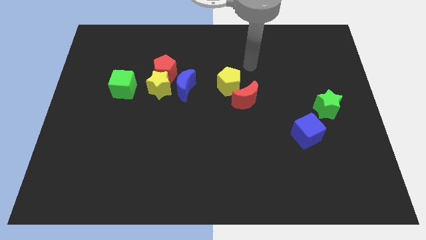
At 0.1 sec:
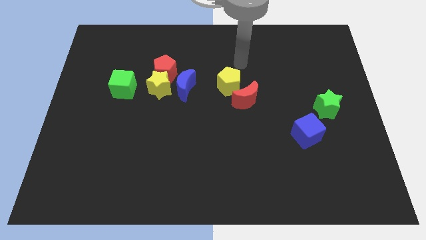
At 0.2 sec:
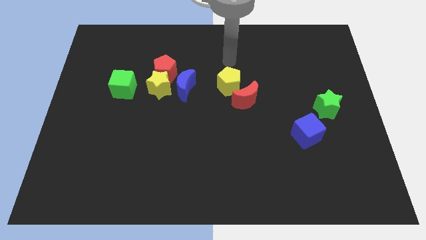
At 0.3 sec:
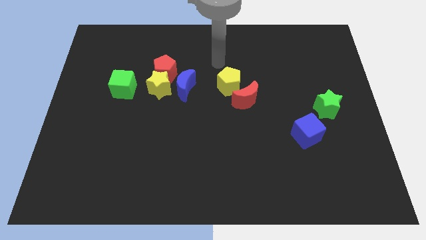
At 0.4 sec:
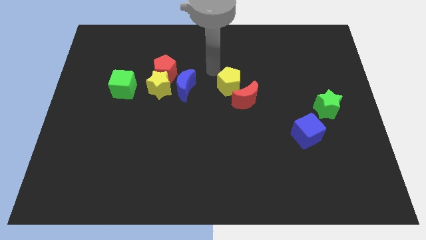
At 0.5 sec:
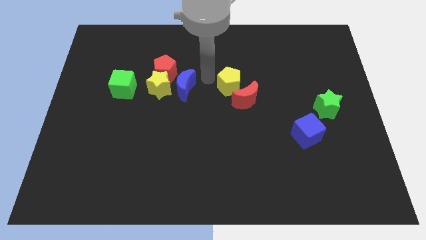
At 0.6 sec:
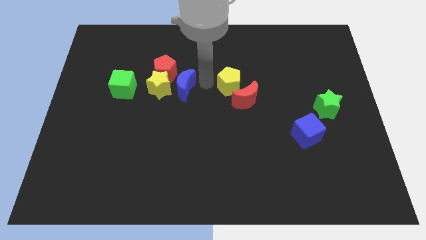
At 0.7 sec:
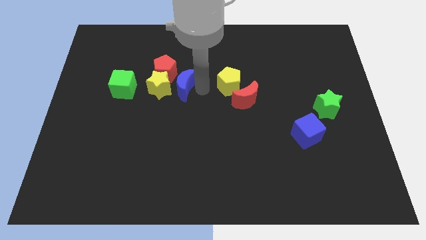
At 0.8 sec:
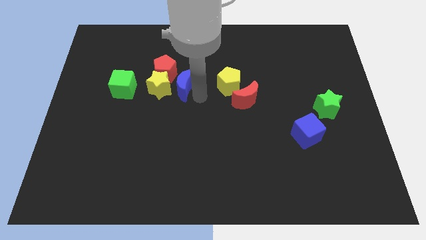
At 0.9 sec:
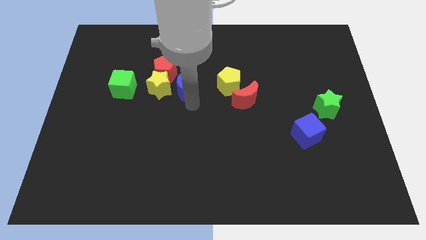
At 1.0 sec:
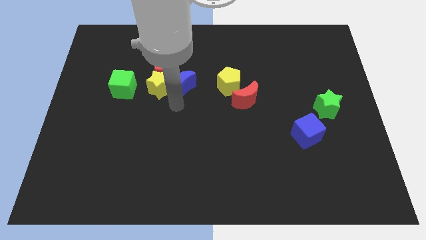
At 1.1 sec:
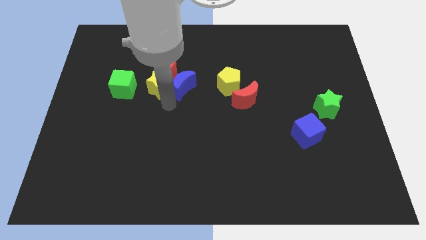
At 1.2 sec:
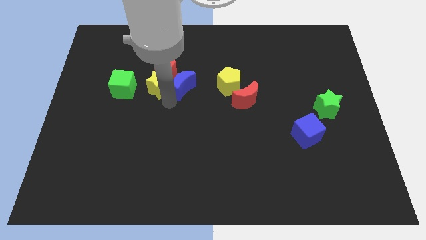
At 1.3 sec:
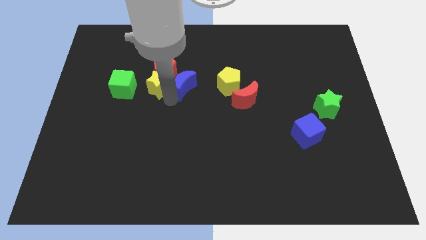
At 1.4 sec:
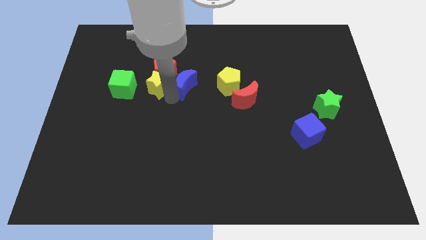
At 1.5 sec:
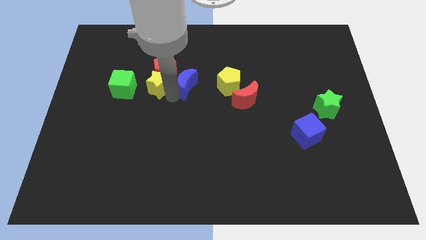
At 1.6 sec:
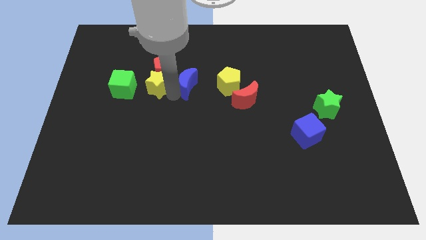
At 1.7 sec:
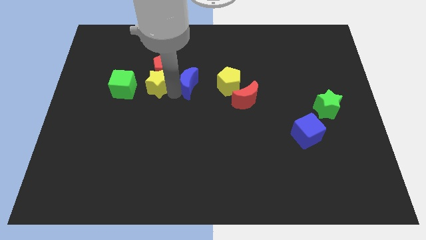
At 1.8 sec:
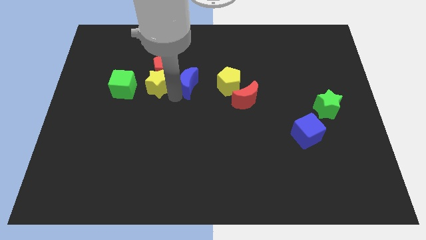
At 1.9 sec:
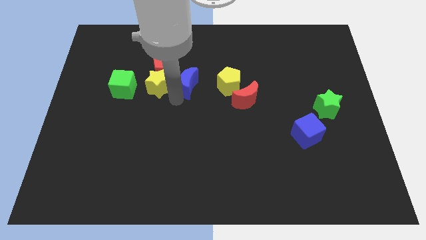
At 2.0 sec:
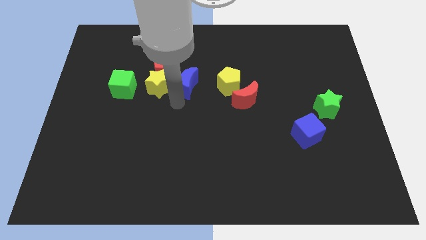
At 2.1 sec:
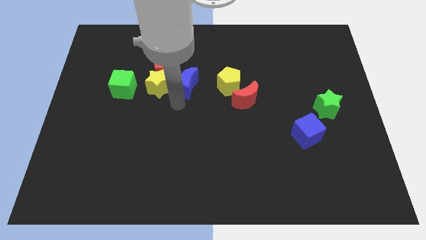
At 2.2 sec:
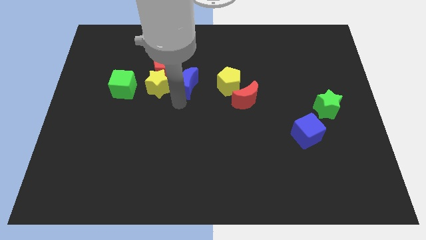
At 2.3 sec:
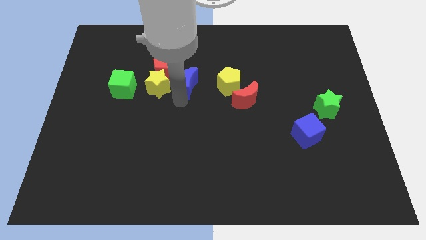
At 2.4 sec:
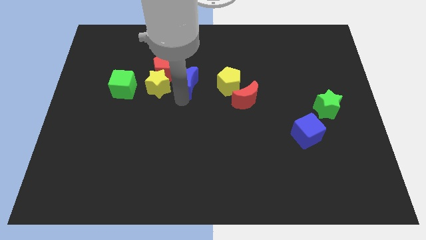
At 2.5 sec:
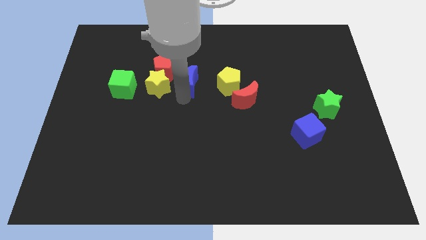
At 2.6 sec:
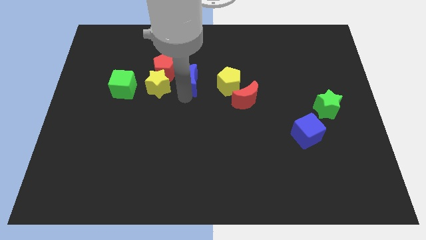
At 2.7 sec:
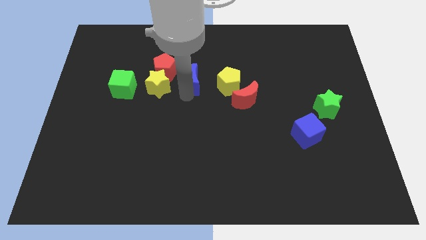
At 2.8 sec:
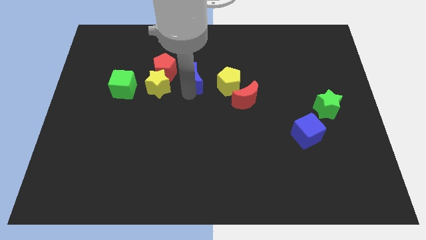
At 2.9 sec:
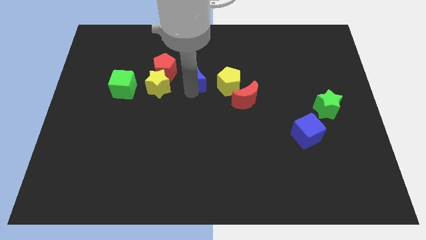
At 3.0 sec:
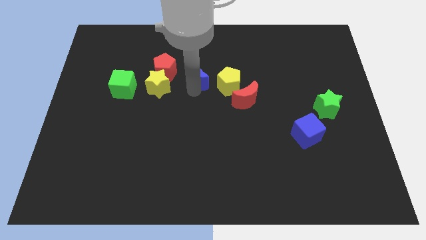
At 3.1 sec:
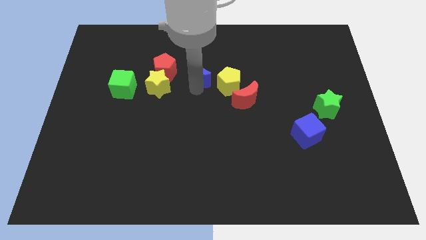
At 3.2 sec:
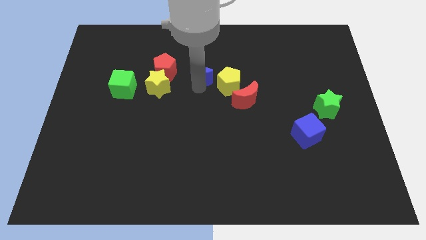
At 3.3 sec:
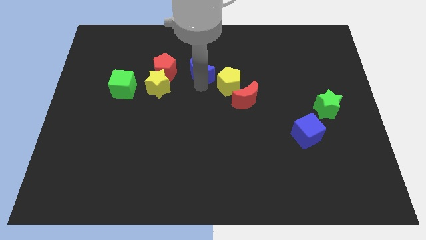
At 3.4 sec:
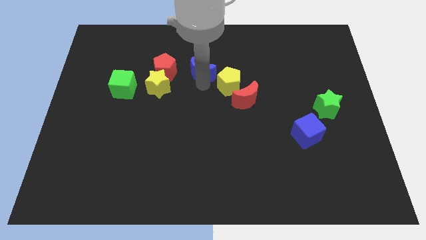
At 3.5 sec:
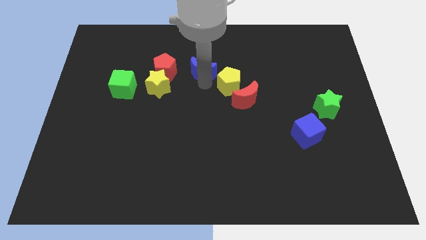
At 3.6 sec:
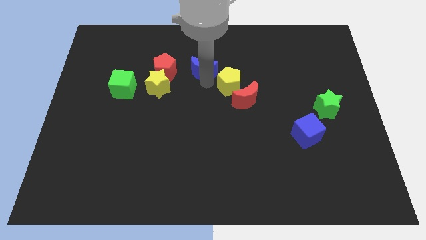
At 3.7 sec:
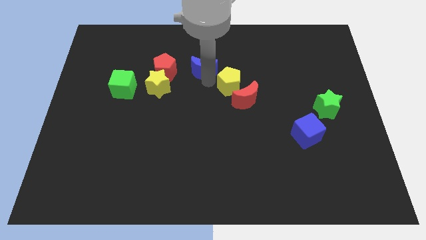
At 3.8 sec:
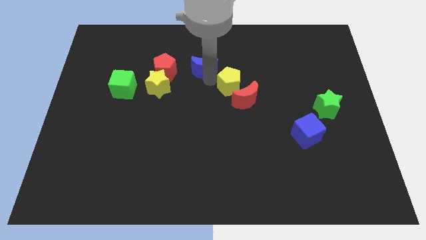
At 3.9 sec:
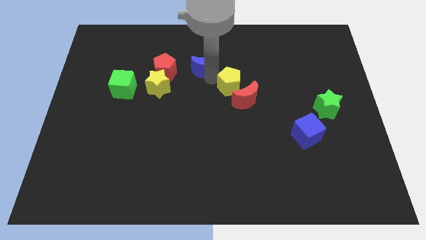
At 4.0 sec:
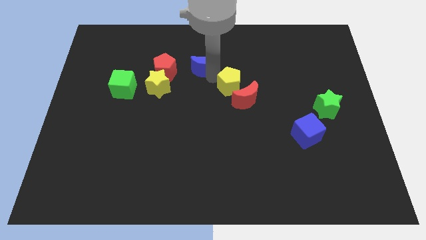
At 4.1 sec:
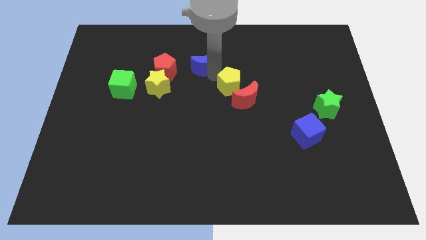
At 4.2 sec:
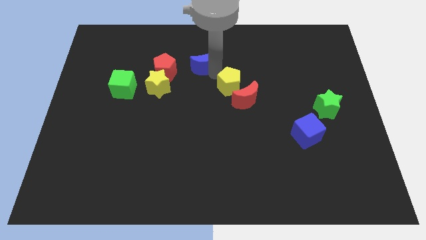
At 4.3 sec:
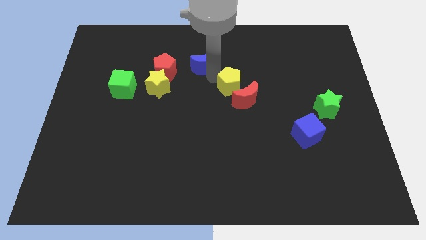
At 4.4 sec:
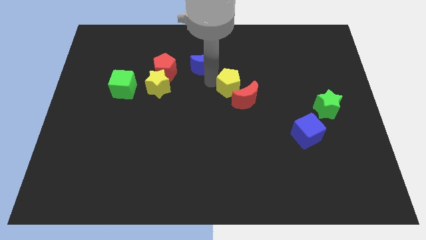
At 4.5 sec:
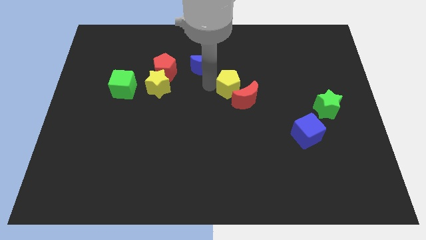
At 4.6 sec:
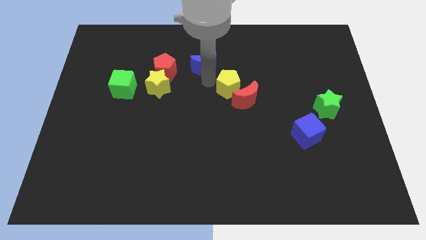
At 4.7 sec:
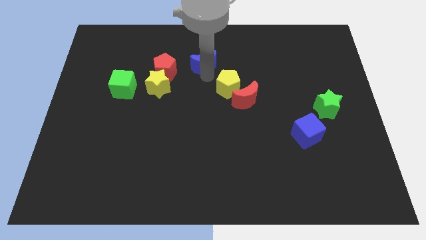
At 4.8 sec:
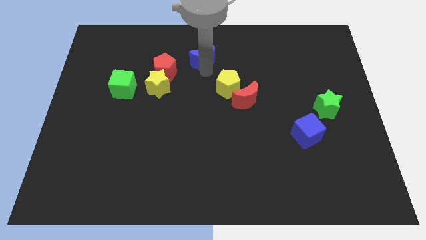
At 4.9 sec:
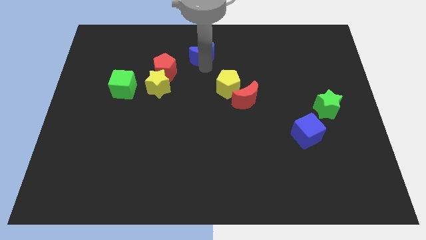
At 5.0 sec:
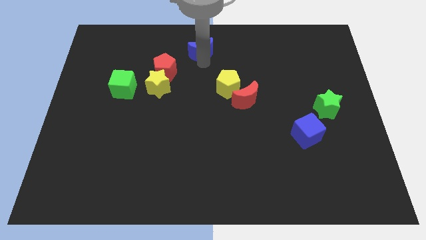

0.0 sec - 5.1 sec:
put the blue moon to the top

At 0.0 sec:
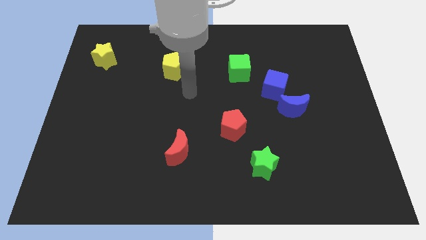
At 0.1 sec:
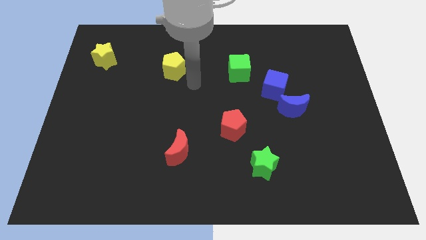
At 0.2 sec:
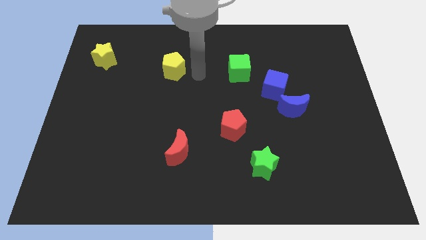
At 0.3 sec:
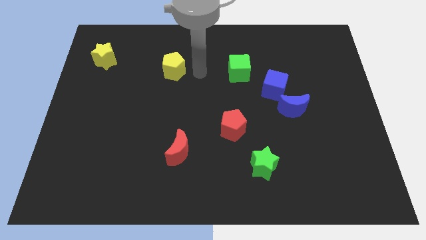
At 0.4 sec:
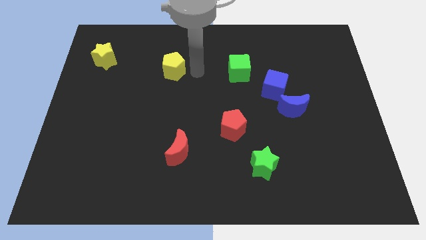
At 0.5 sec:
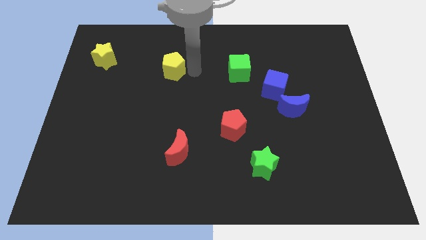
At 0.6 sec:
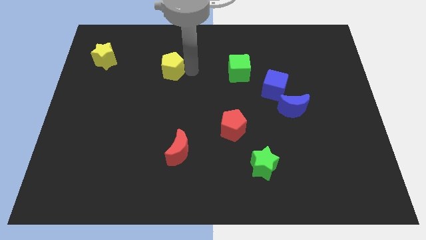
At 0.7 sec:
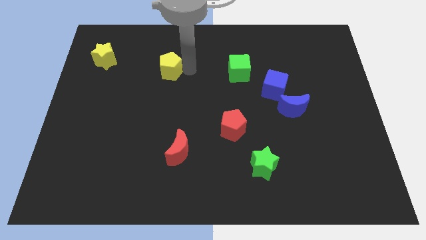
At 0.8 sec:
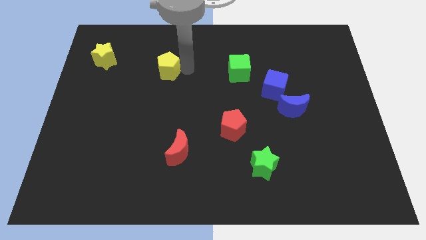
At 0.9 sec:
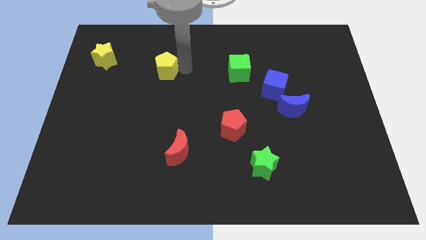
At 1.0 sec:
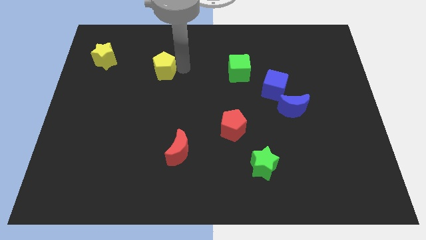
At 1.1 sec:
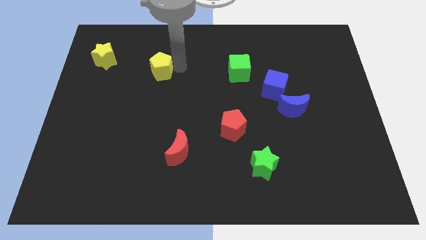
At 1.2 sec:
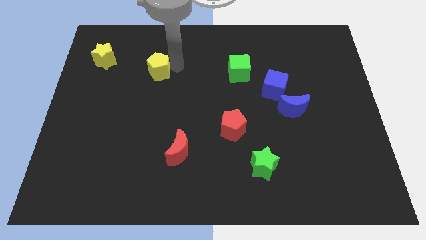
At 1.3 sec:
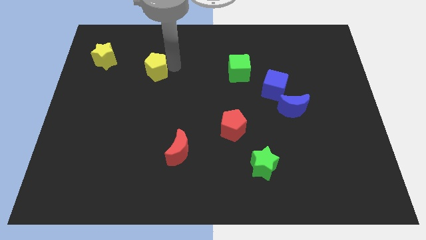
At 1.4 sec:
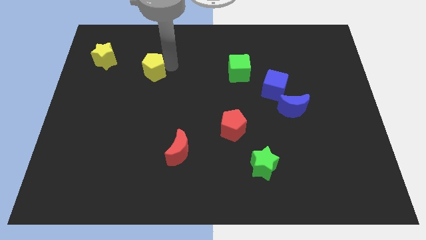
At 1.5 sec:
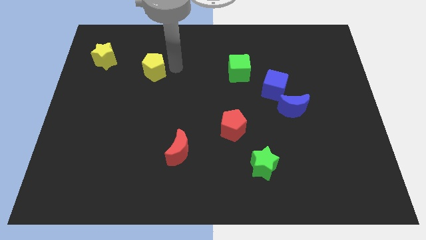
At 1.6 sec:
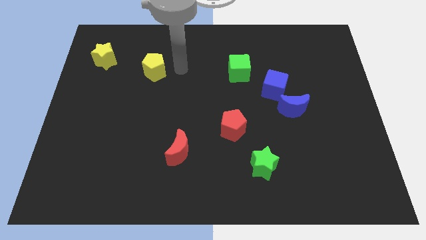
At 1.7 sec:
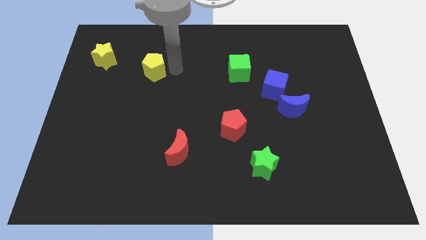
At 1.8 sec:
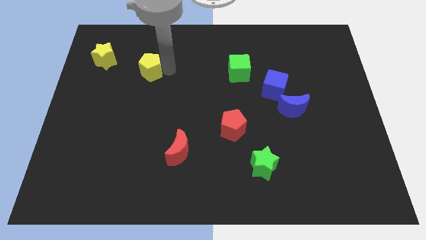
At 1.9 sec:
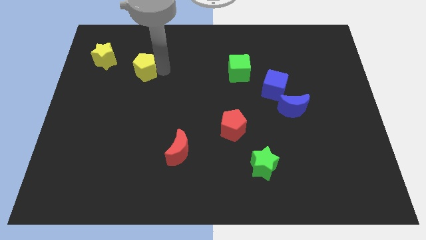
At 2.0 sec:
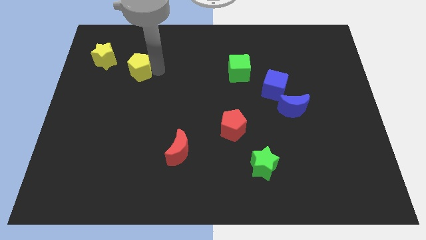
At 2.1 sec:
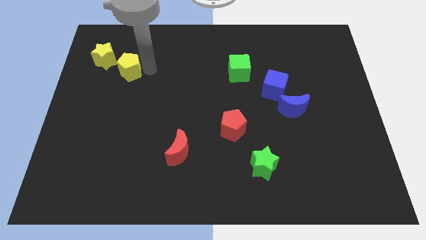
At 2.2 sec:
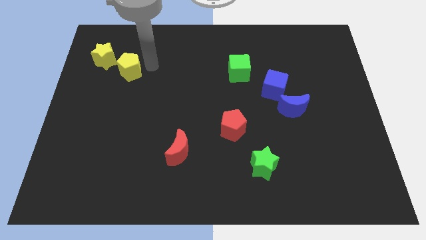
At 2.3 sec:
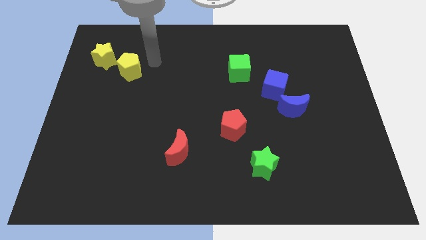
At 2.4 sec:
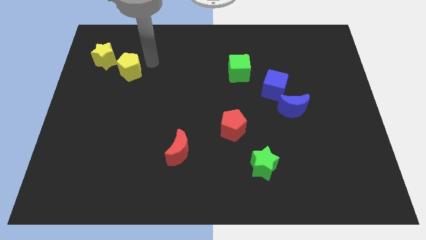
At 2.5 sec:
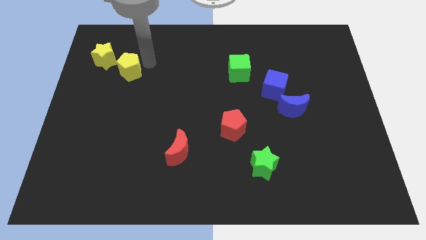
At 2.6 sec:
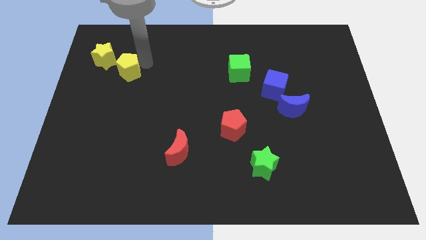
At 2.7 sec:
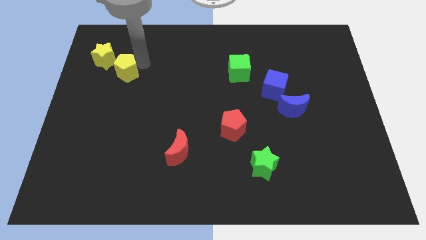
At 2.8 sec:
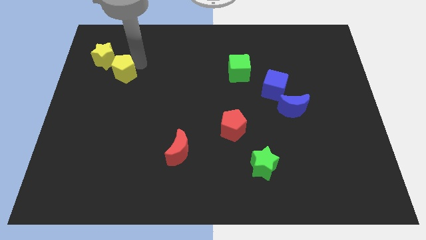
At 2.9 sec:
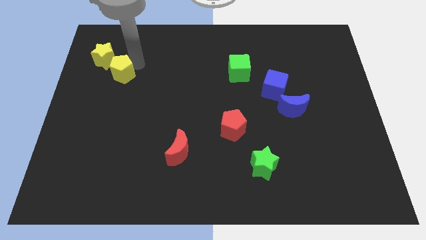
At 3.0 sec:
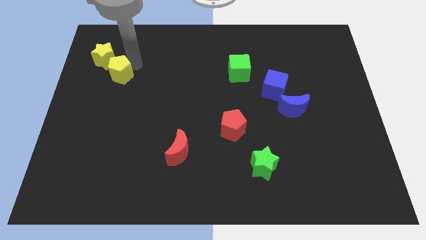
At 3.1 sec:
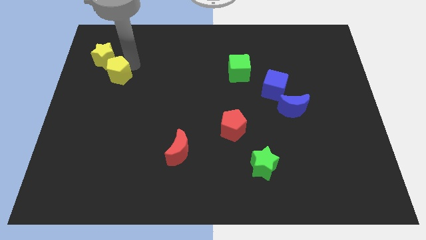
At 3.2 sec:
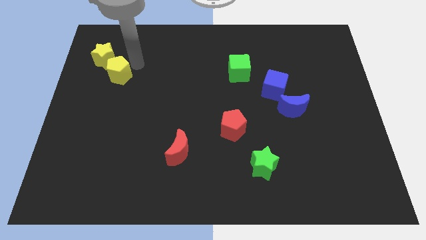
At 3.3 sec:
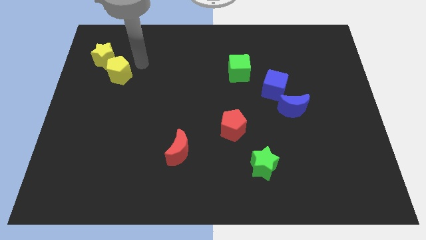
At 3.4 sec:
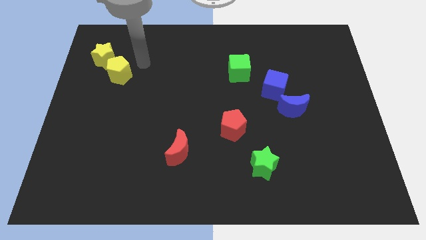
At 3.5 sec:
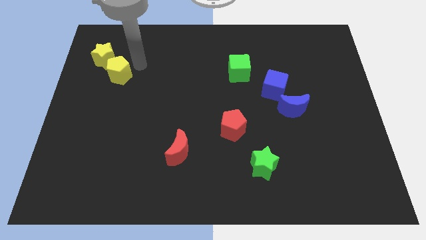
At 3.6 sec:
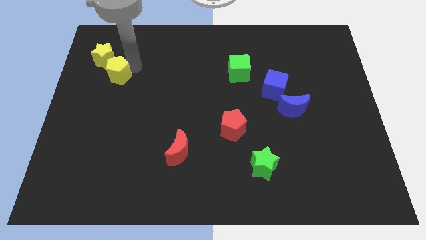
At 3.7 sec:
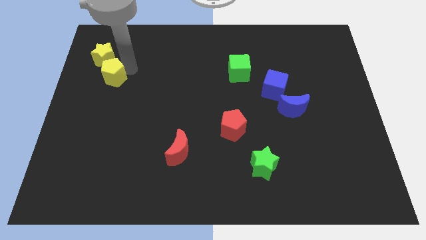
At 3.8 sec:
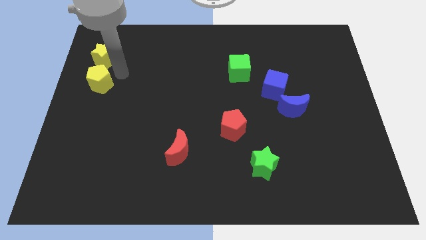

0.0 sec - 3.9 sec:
put the yellow pentagon to the center left
